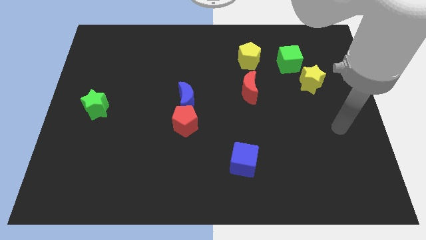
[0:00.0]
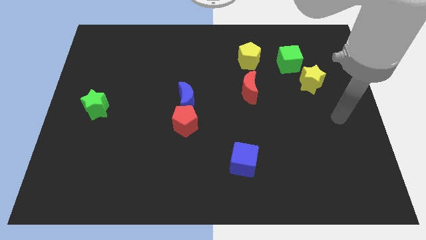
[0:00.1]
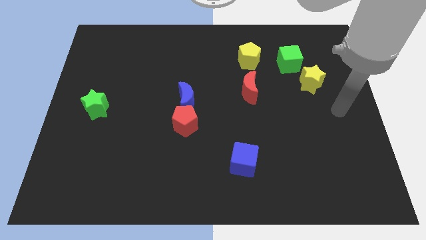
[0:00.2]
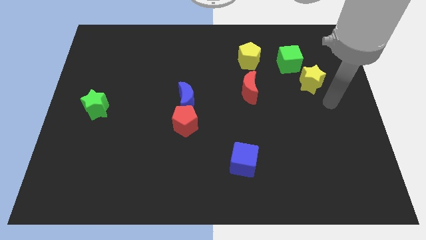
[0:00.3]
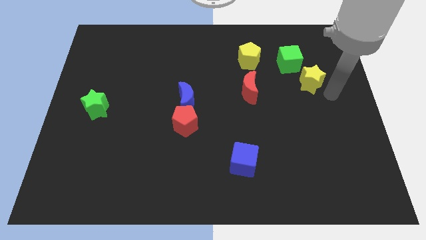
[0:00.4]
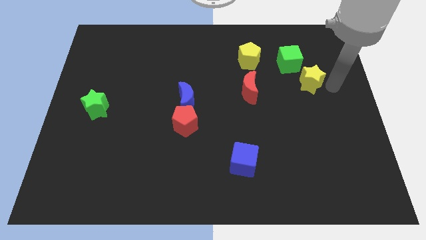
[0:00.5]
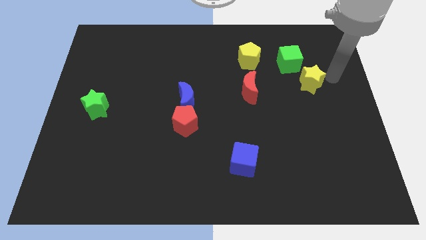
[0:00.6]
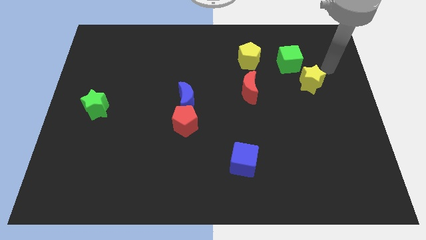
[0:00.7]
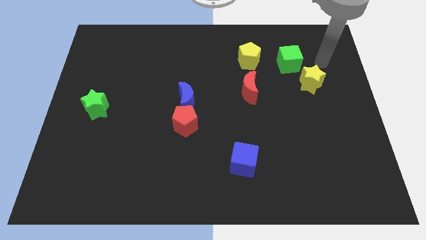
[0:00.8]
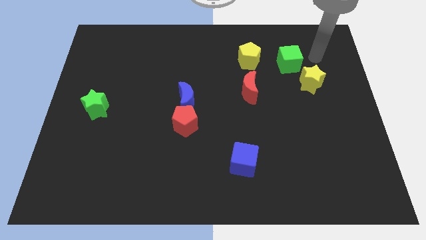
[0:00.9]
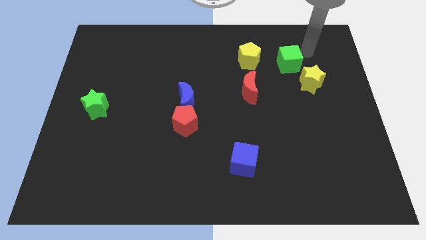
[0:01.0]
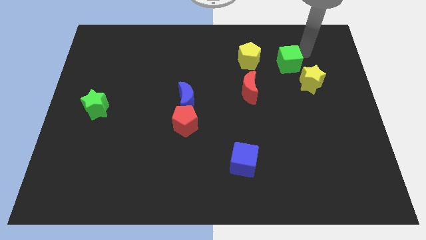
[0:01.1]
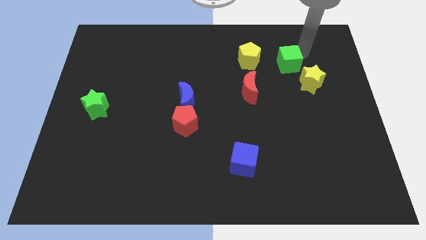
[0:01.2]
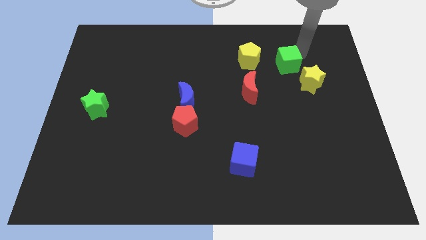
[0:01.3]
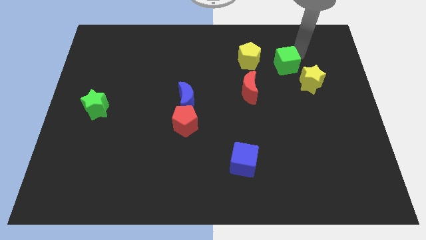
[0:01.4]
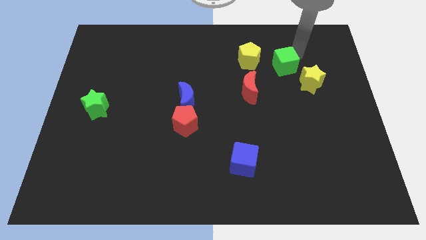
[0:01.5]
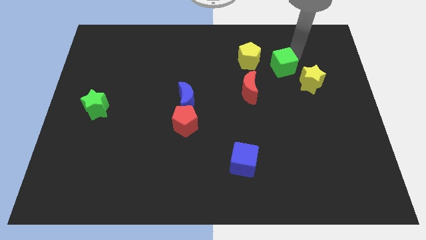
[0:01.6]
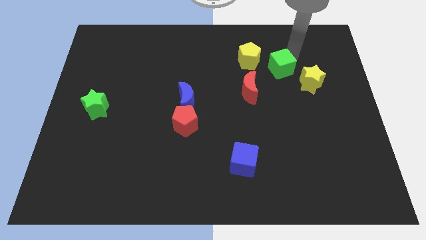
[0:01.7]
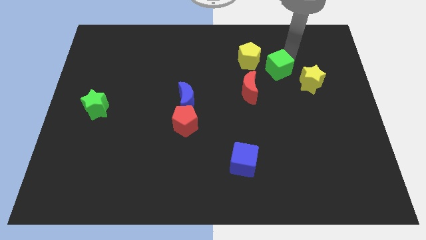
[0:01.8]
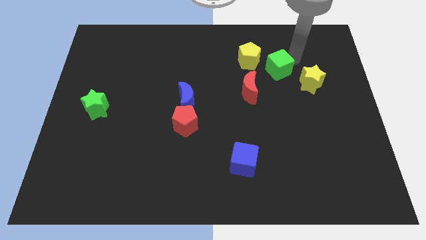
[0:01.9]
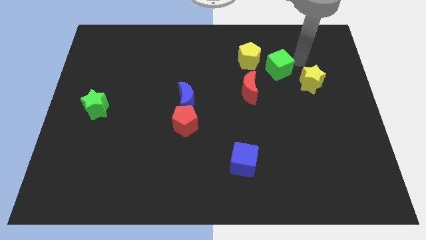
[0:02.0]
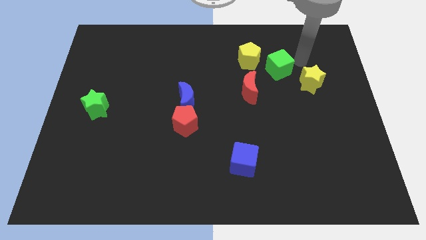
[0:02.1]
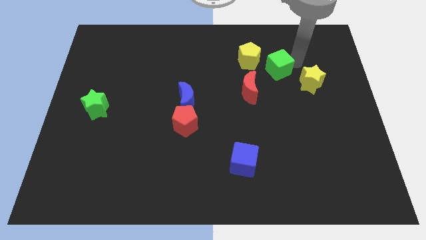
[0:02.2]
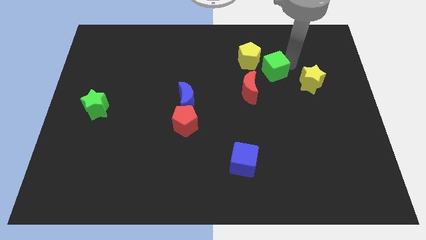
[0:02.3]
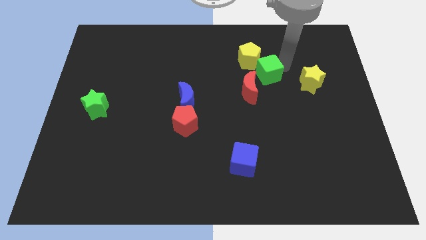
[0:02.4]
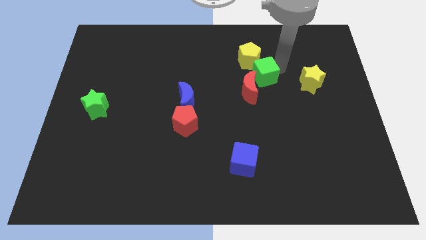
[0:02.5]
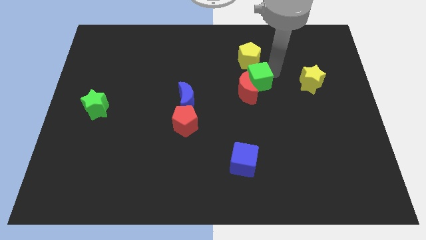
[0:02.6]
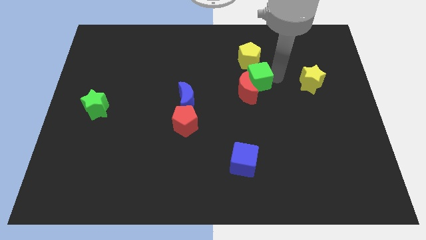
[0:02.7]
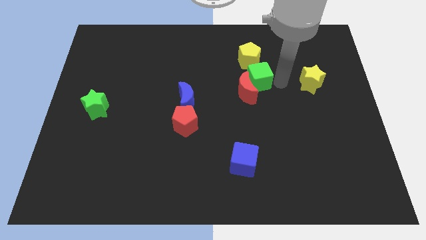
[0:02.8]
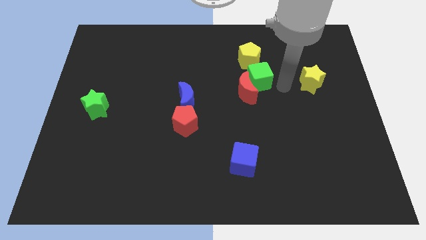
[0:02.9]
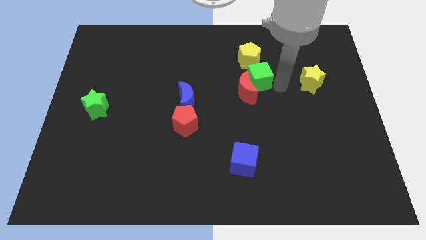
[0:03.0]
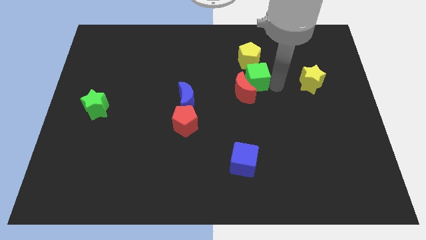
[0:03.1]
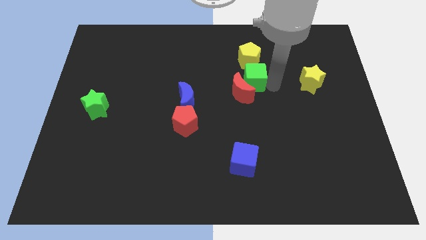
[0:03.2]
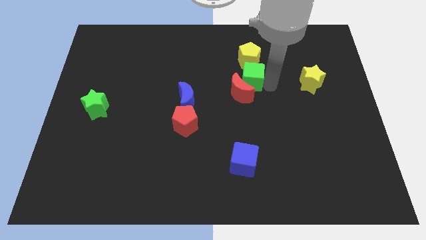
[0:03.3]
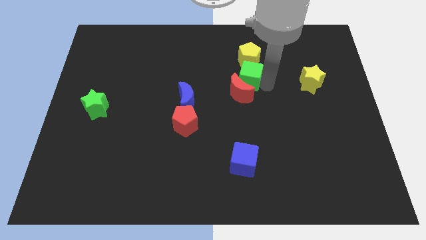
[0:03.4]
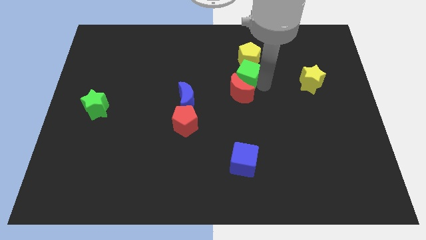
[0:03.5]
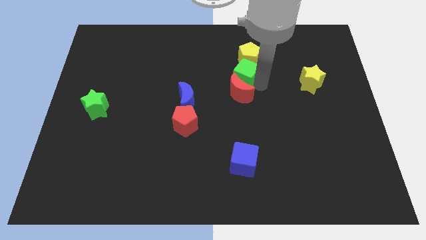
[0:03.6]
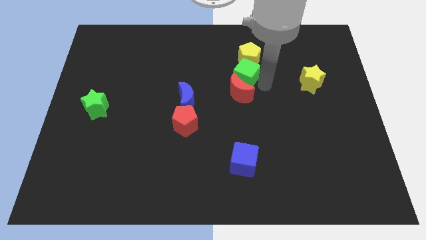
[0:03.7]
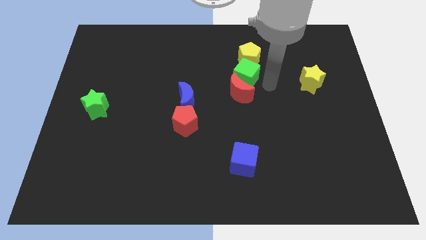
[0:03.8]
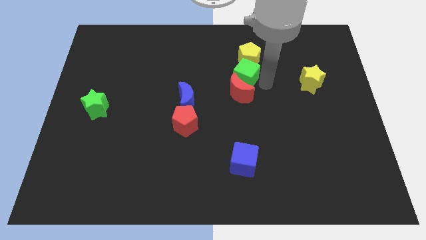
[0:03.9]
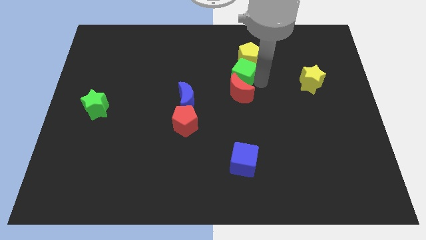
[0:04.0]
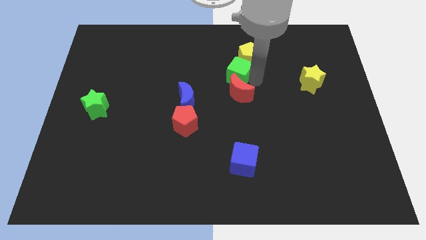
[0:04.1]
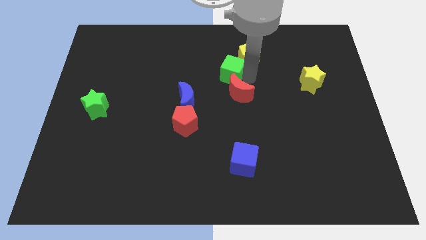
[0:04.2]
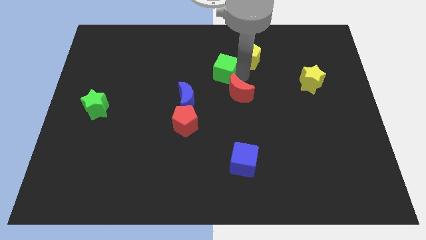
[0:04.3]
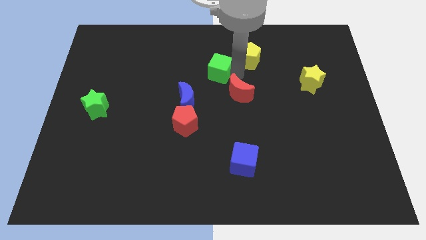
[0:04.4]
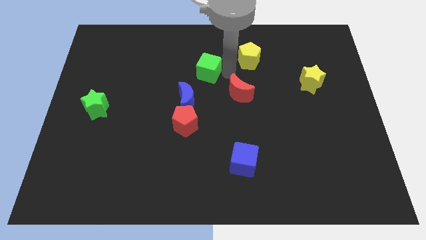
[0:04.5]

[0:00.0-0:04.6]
slide the green cube to the left

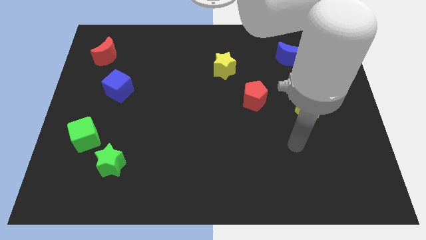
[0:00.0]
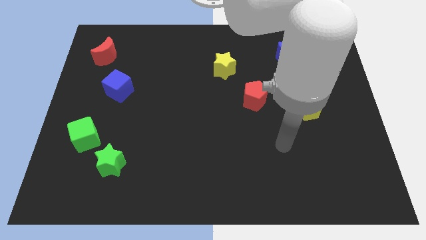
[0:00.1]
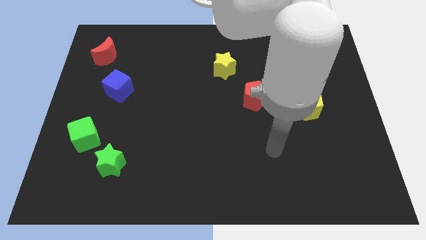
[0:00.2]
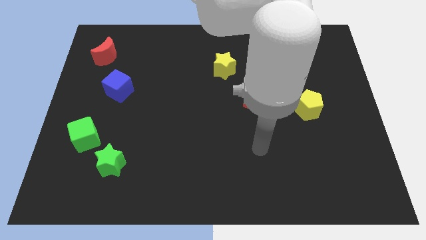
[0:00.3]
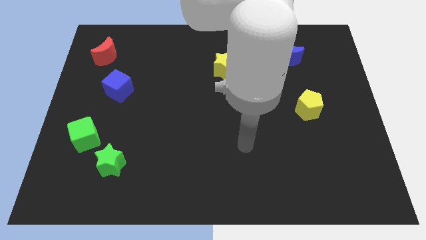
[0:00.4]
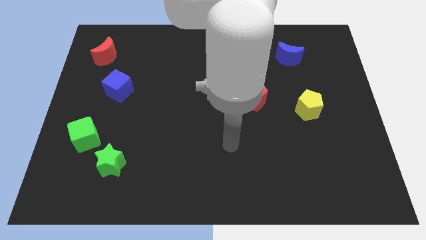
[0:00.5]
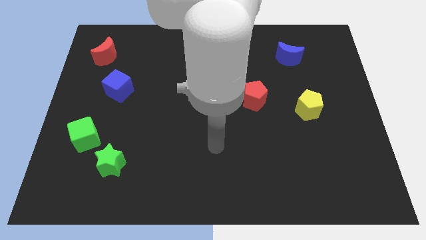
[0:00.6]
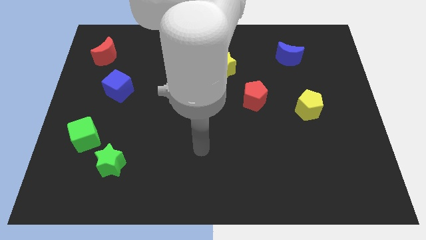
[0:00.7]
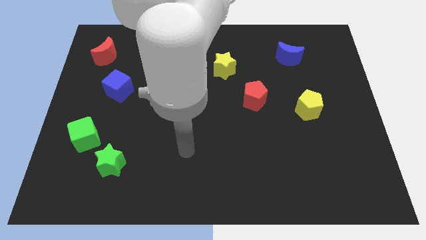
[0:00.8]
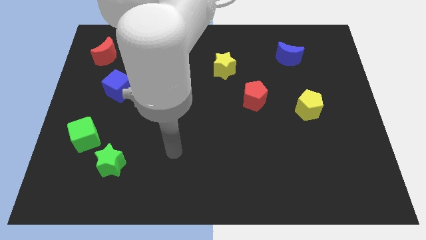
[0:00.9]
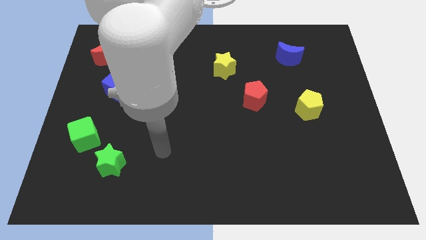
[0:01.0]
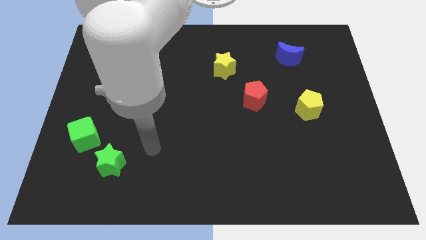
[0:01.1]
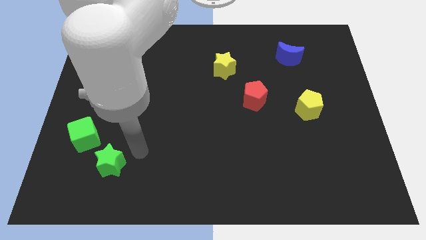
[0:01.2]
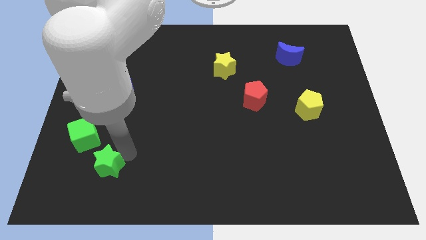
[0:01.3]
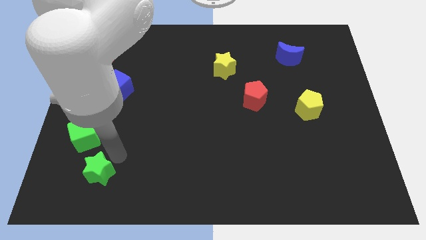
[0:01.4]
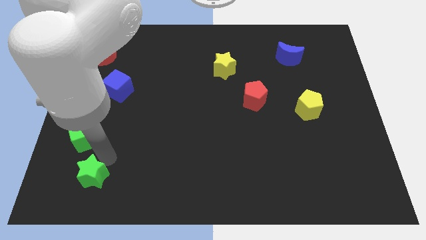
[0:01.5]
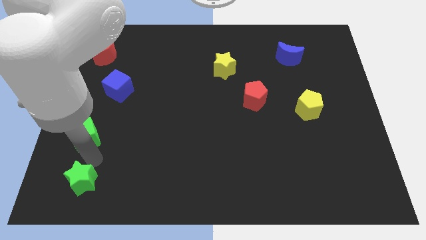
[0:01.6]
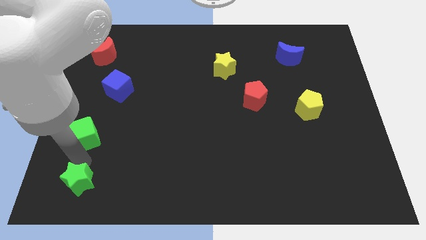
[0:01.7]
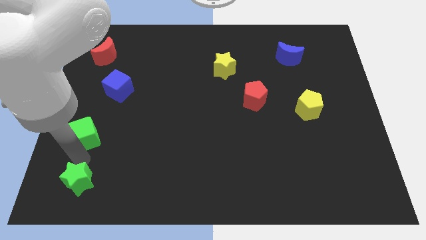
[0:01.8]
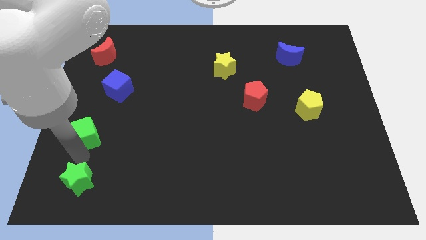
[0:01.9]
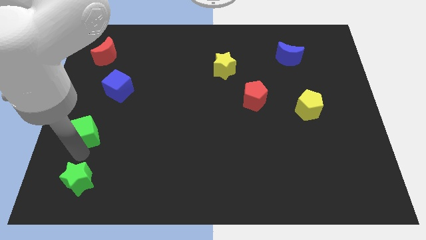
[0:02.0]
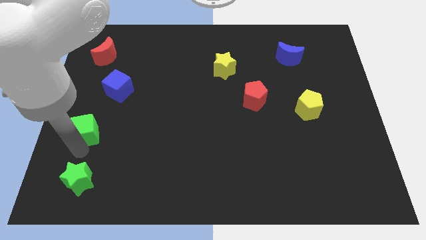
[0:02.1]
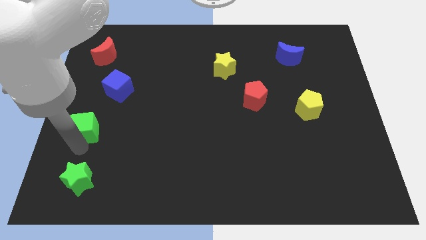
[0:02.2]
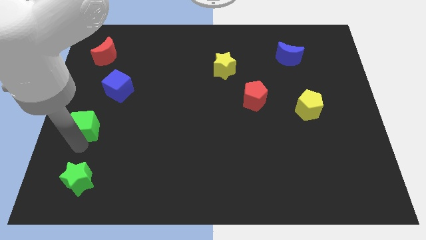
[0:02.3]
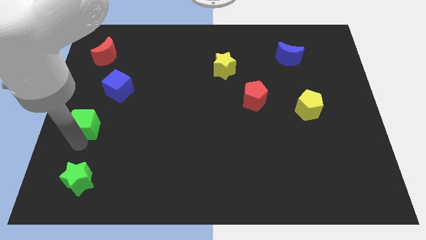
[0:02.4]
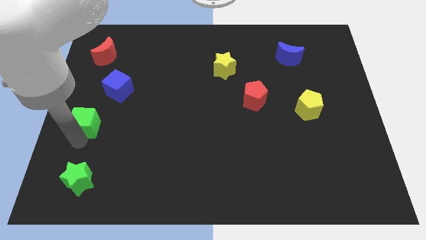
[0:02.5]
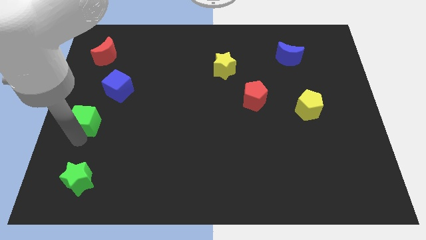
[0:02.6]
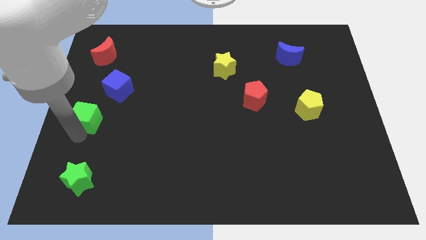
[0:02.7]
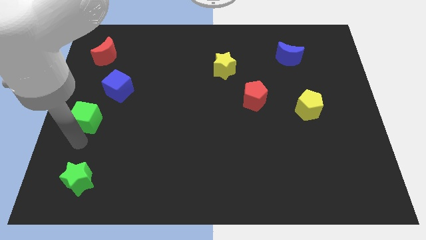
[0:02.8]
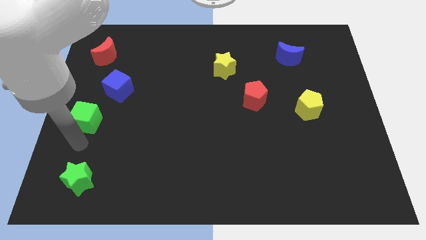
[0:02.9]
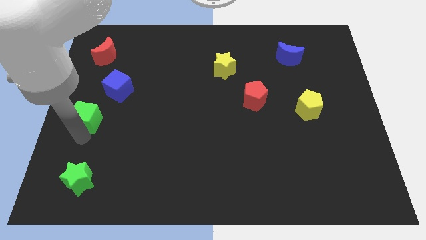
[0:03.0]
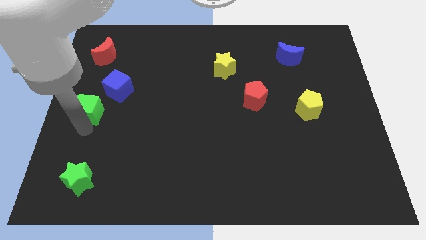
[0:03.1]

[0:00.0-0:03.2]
slightly push the green cube upwards
